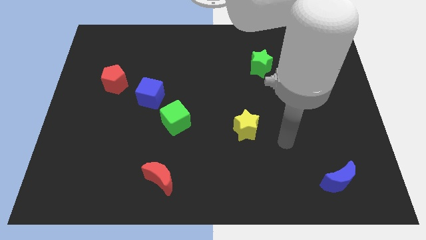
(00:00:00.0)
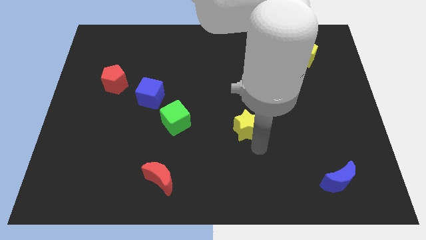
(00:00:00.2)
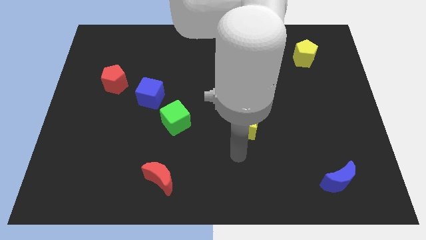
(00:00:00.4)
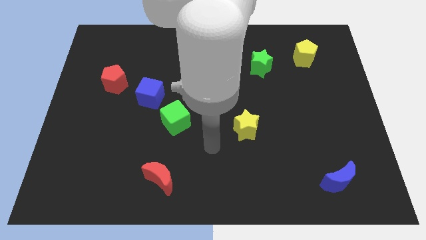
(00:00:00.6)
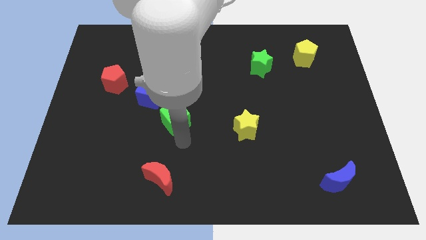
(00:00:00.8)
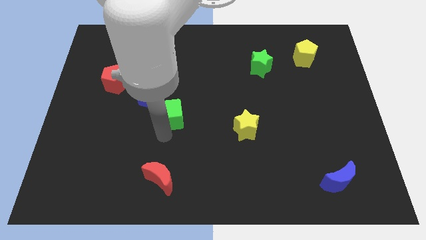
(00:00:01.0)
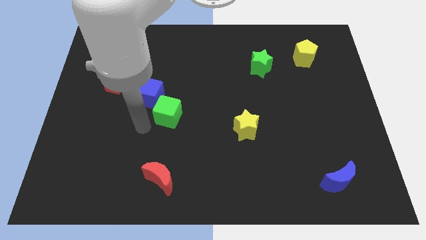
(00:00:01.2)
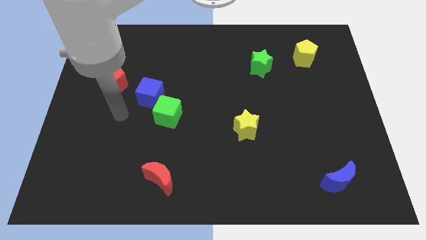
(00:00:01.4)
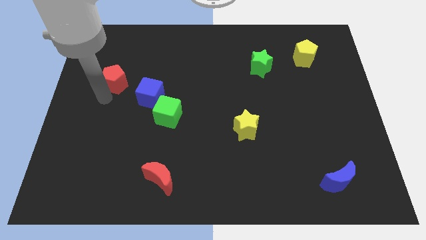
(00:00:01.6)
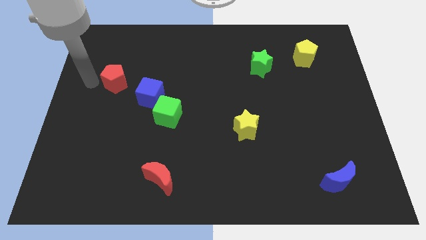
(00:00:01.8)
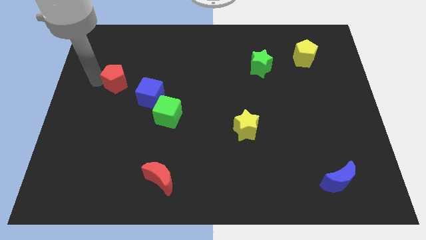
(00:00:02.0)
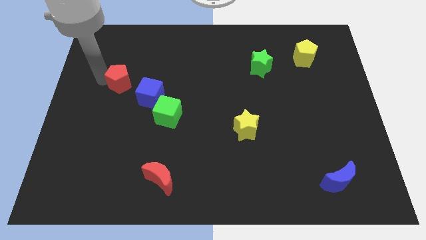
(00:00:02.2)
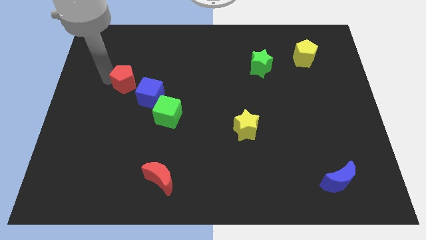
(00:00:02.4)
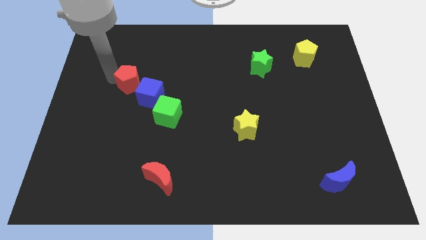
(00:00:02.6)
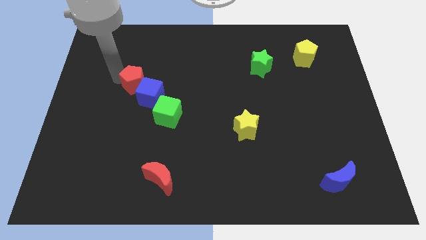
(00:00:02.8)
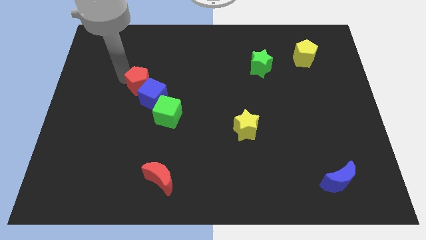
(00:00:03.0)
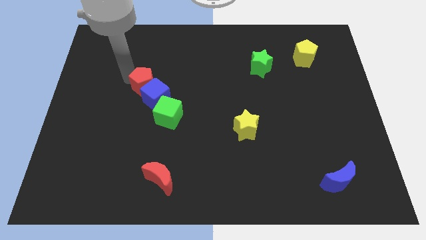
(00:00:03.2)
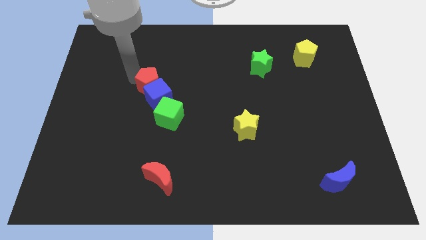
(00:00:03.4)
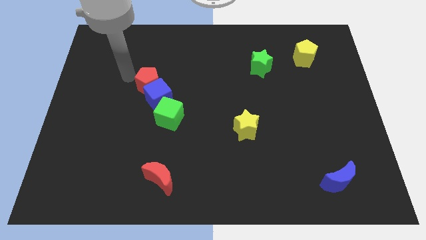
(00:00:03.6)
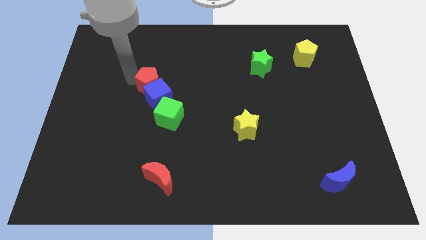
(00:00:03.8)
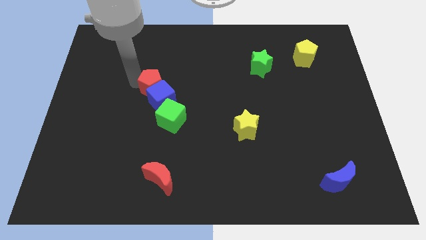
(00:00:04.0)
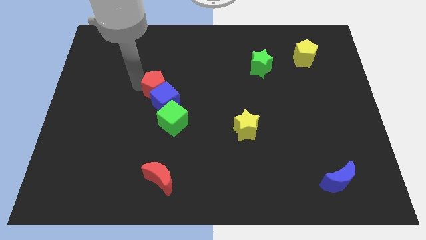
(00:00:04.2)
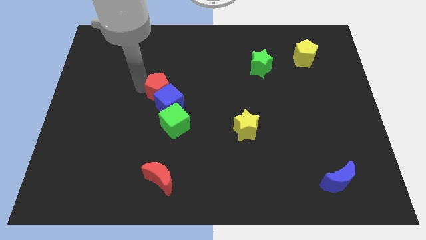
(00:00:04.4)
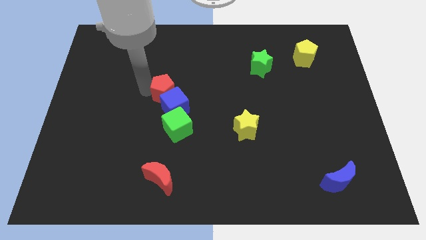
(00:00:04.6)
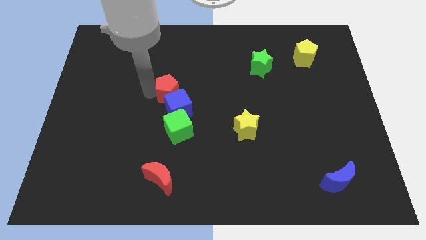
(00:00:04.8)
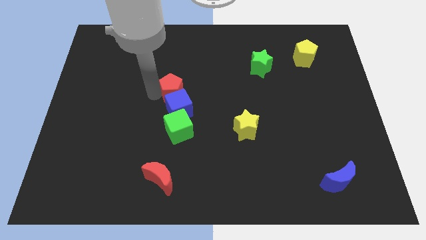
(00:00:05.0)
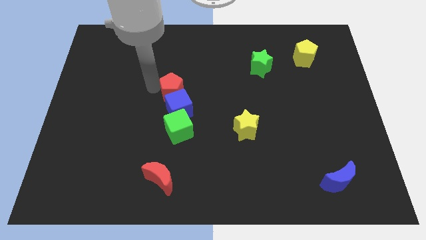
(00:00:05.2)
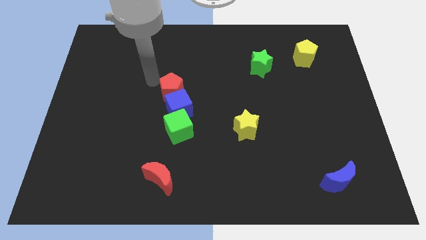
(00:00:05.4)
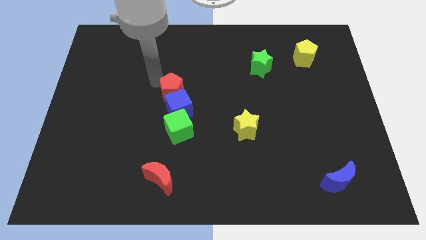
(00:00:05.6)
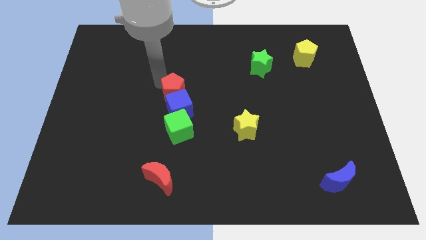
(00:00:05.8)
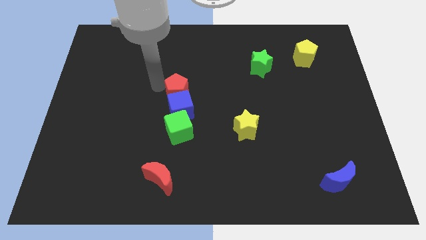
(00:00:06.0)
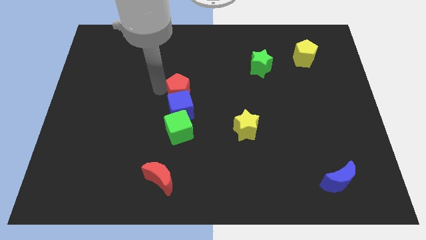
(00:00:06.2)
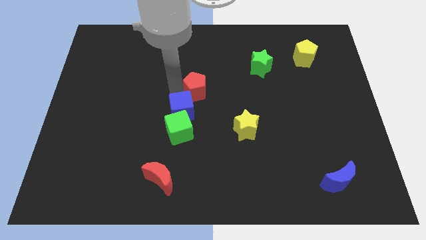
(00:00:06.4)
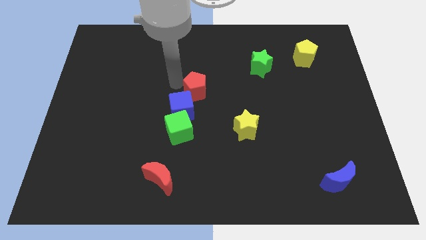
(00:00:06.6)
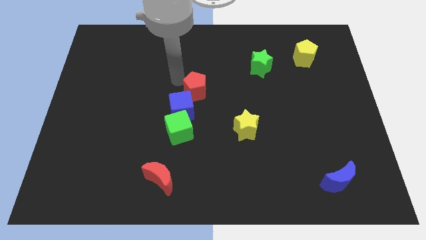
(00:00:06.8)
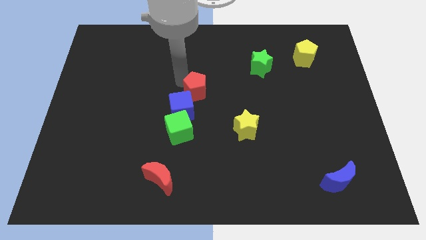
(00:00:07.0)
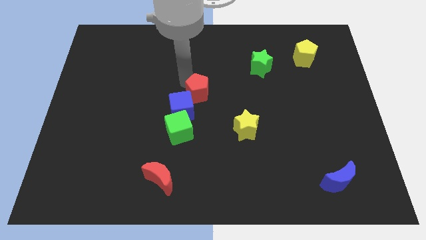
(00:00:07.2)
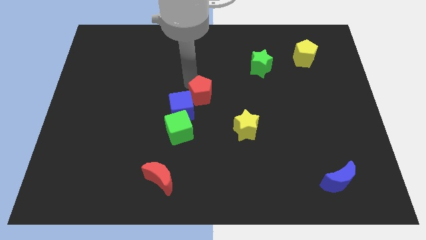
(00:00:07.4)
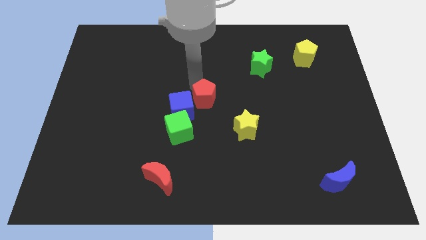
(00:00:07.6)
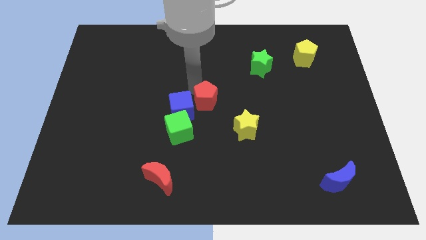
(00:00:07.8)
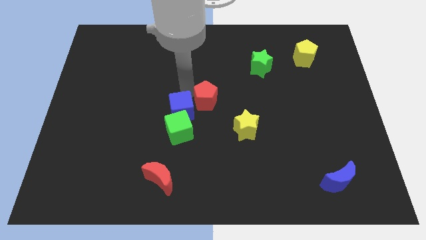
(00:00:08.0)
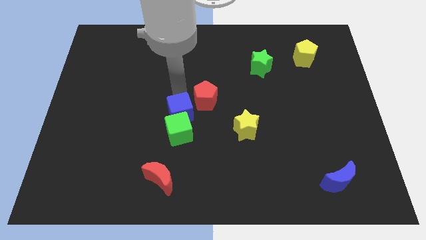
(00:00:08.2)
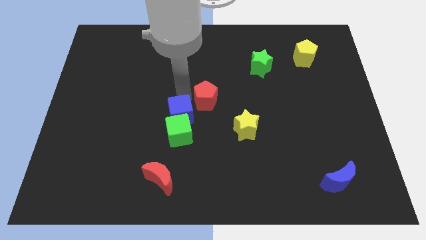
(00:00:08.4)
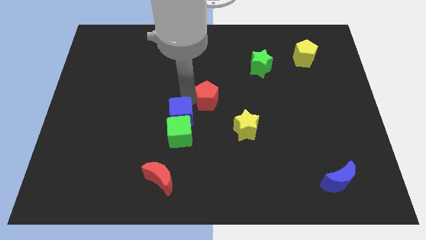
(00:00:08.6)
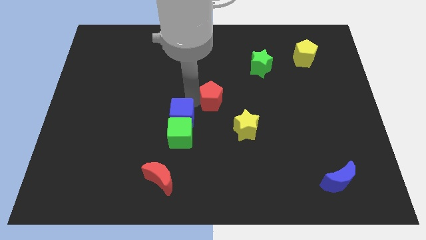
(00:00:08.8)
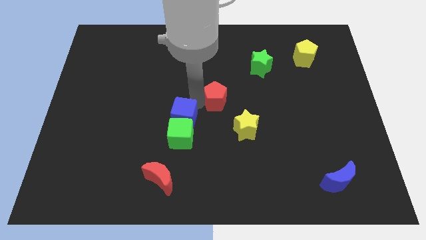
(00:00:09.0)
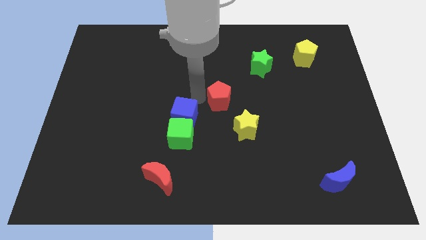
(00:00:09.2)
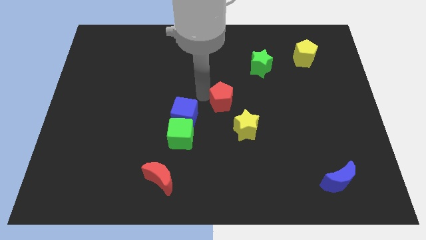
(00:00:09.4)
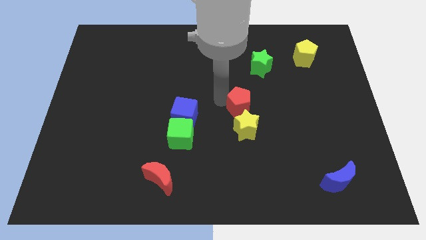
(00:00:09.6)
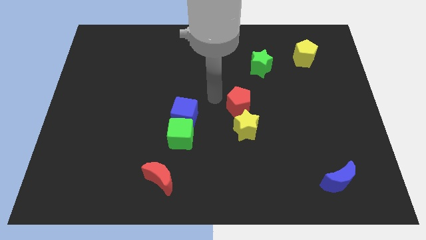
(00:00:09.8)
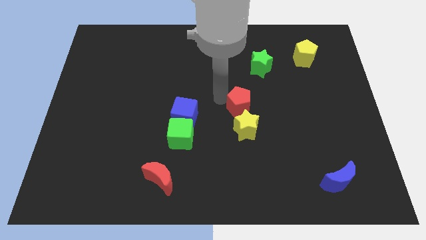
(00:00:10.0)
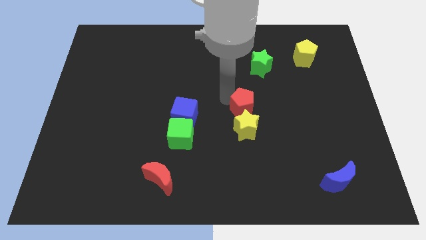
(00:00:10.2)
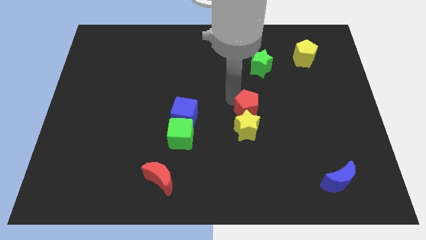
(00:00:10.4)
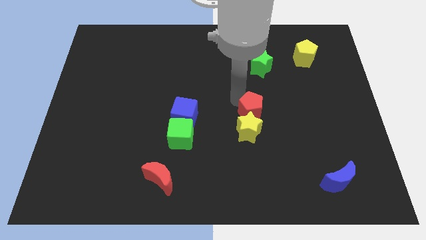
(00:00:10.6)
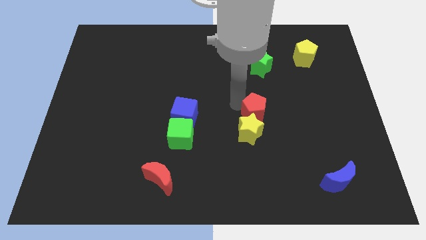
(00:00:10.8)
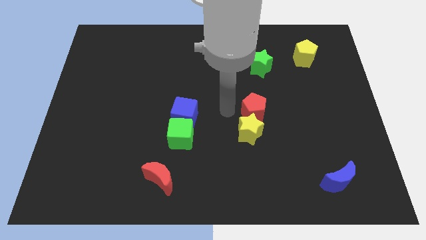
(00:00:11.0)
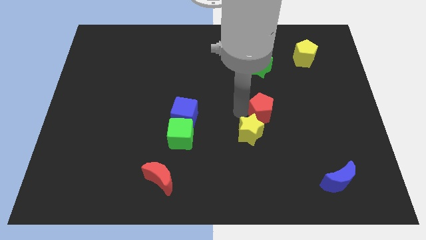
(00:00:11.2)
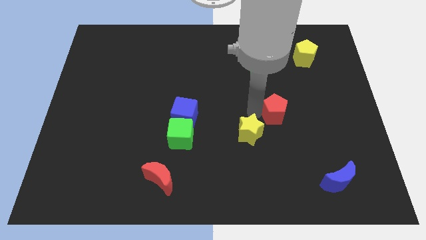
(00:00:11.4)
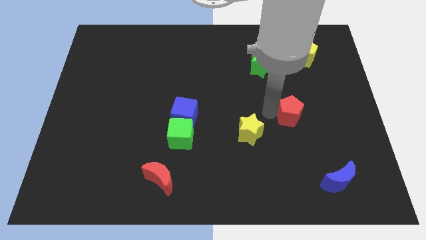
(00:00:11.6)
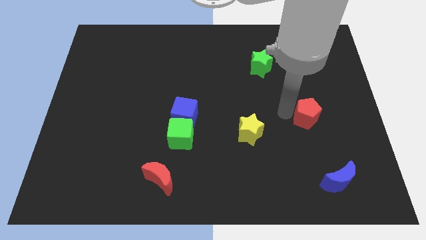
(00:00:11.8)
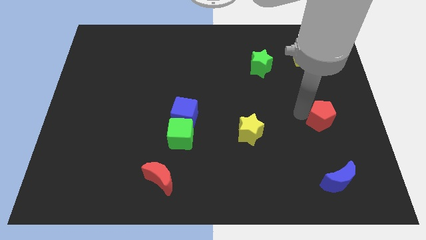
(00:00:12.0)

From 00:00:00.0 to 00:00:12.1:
slide the red pentagon to the top side of the blue moon
